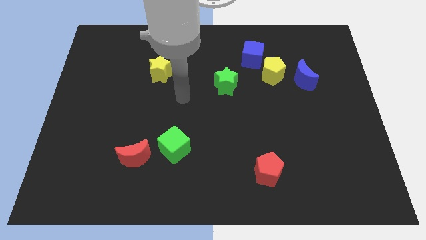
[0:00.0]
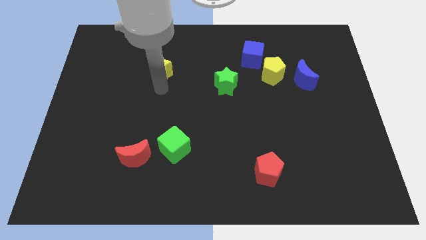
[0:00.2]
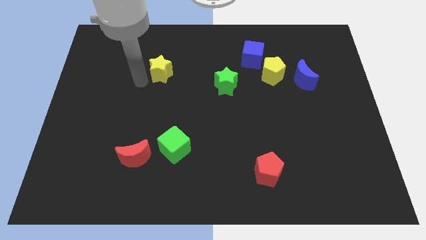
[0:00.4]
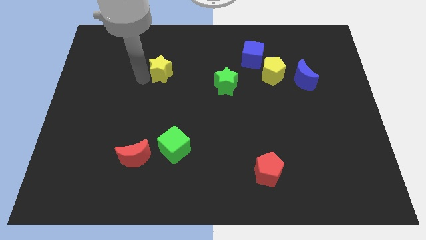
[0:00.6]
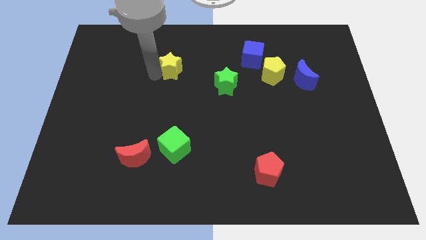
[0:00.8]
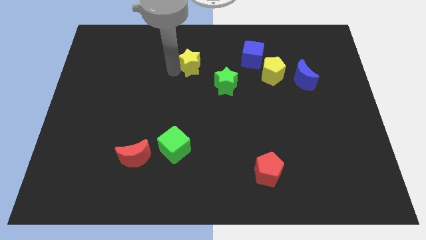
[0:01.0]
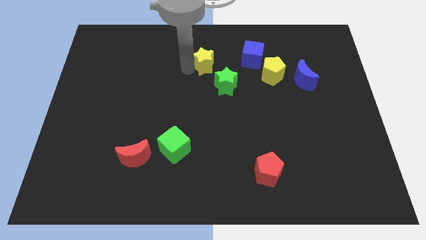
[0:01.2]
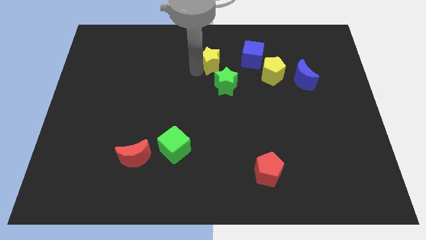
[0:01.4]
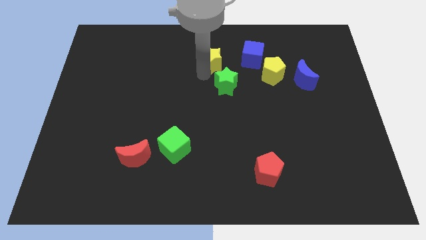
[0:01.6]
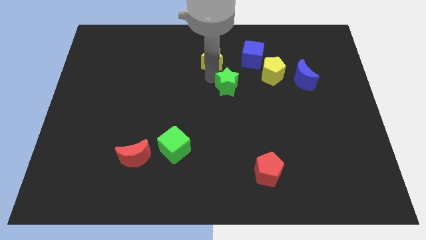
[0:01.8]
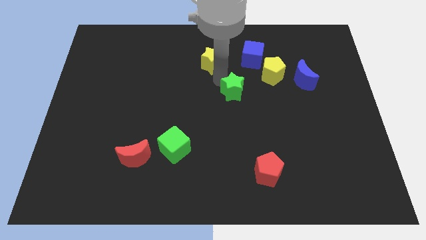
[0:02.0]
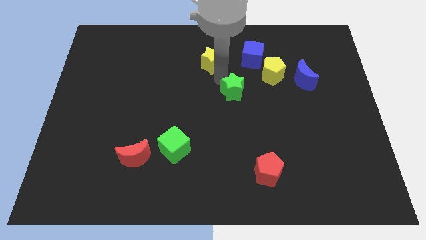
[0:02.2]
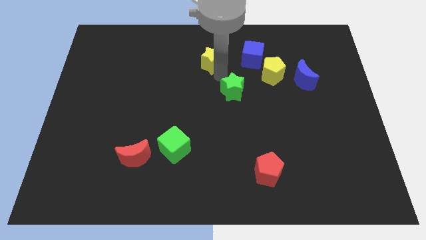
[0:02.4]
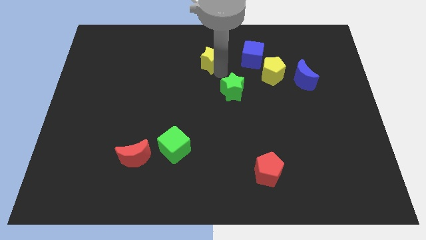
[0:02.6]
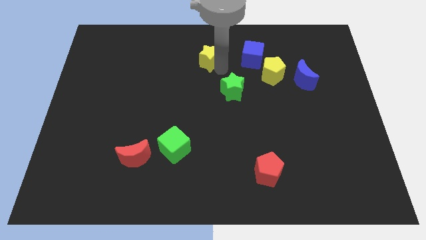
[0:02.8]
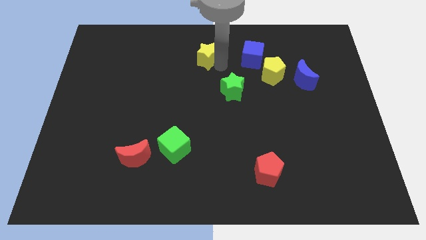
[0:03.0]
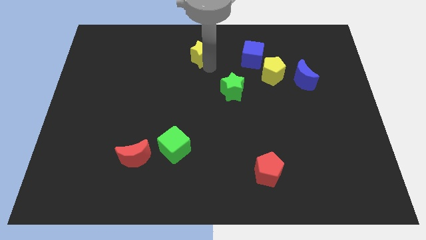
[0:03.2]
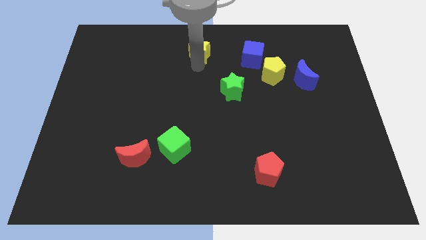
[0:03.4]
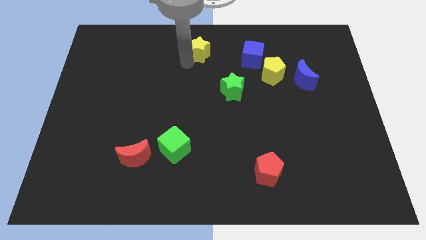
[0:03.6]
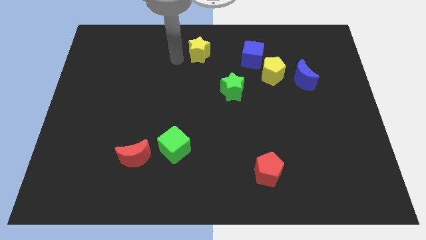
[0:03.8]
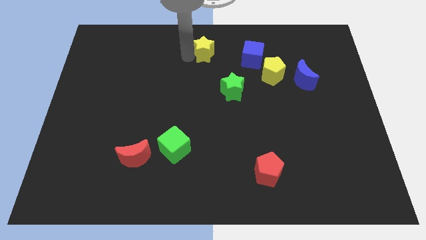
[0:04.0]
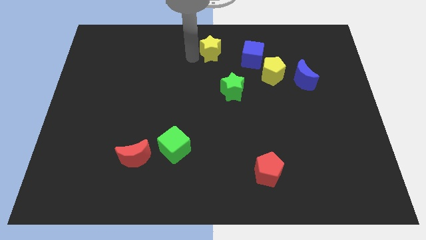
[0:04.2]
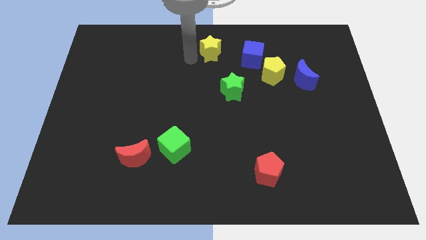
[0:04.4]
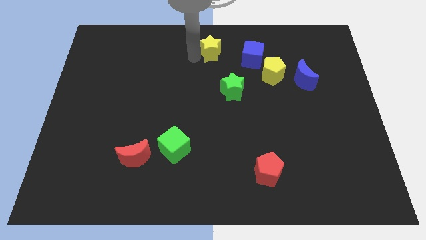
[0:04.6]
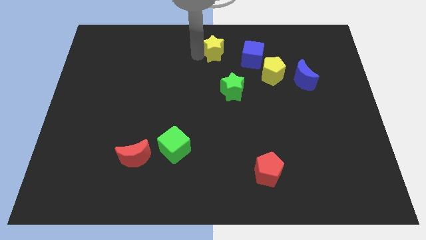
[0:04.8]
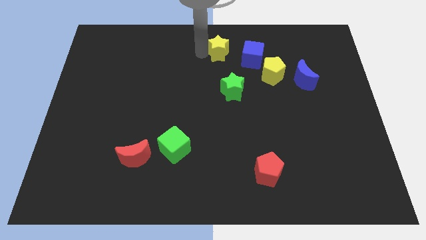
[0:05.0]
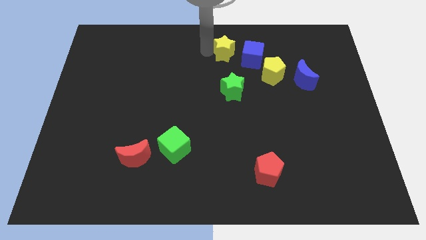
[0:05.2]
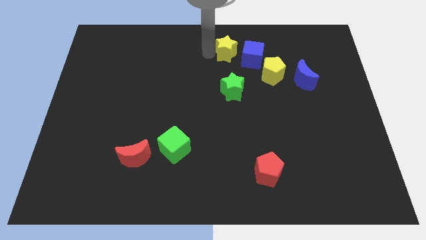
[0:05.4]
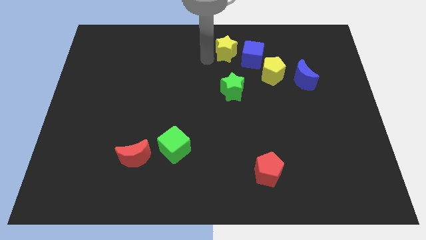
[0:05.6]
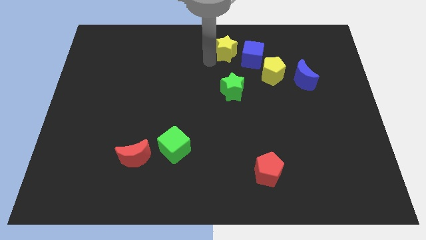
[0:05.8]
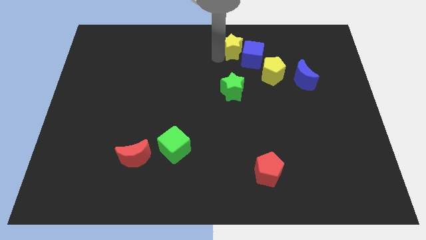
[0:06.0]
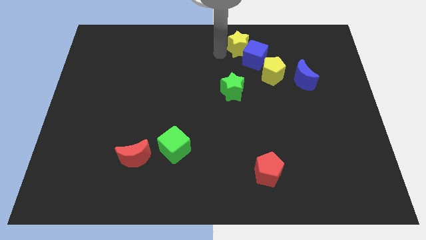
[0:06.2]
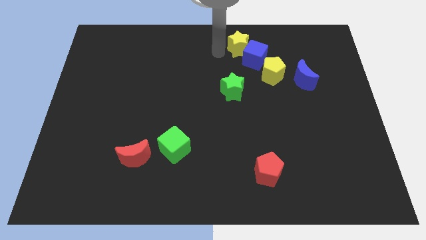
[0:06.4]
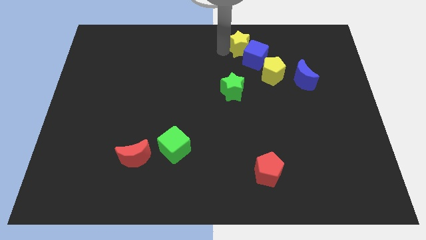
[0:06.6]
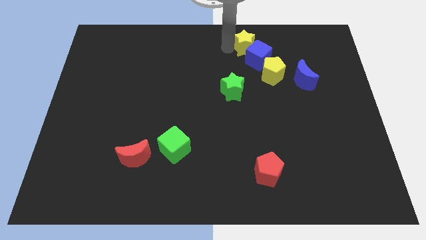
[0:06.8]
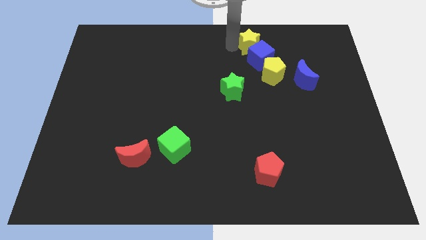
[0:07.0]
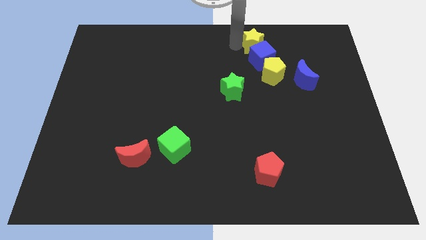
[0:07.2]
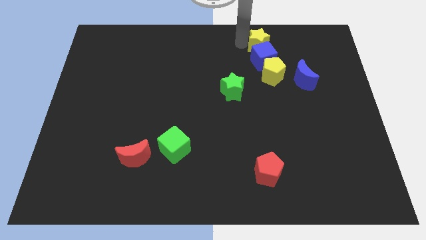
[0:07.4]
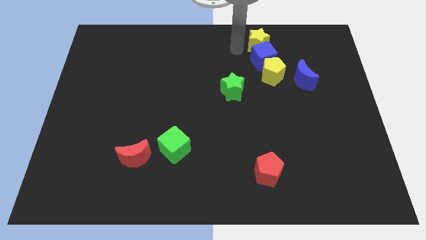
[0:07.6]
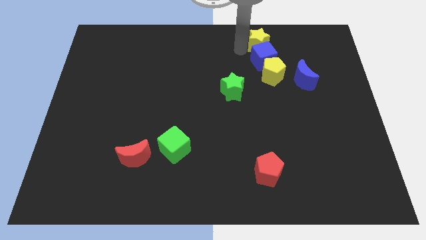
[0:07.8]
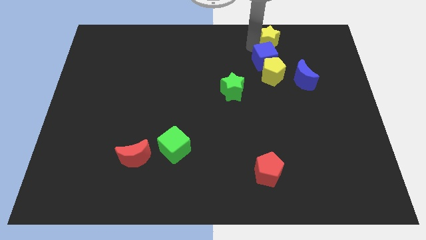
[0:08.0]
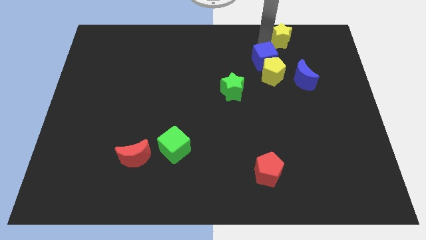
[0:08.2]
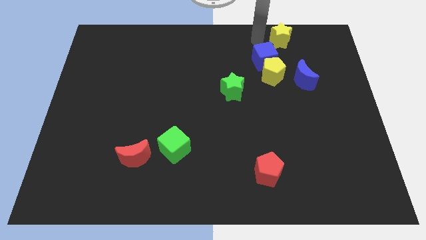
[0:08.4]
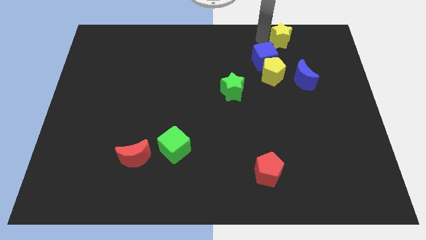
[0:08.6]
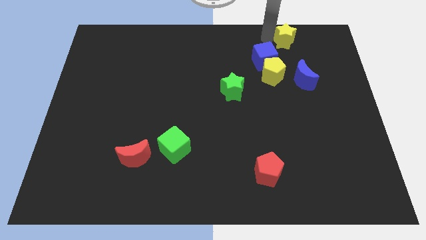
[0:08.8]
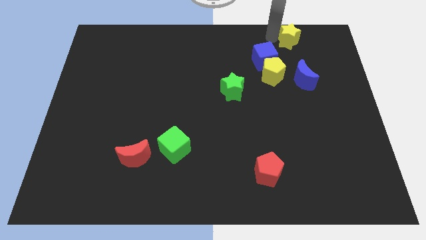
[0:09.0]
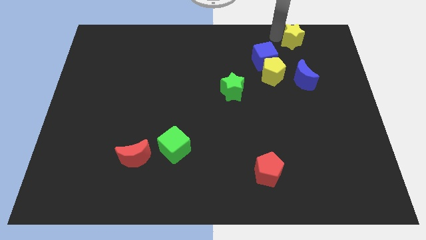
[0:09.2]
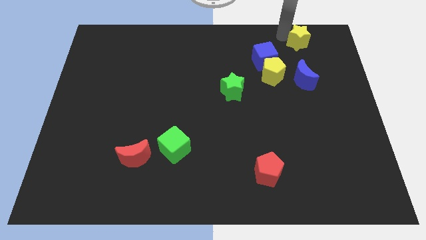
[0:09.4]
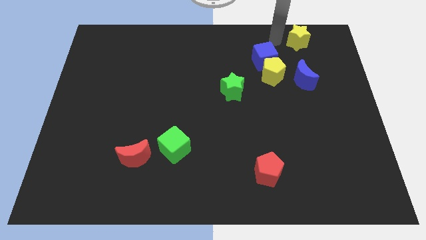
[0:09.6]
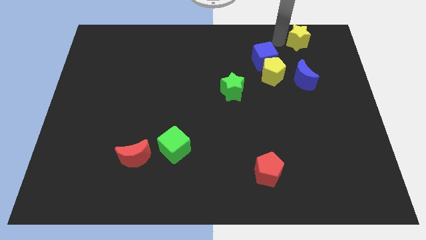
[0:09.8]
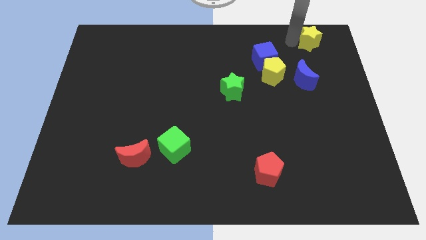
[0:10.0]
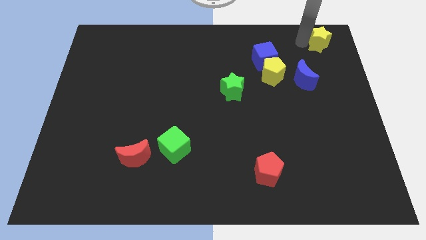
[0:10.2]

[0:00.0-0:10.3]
put the yellow star to the top right

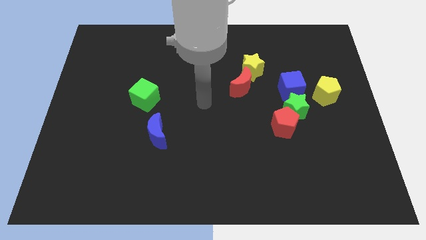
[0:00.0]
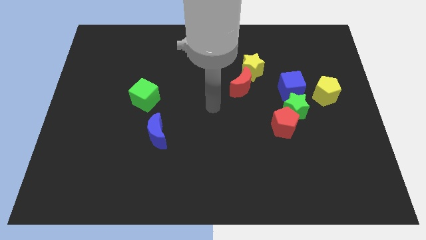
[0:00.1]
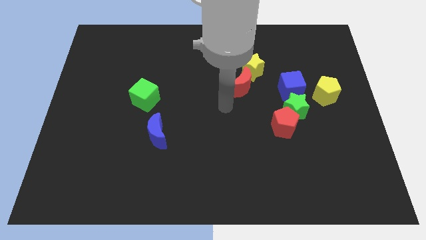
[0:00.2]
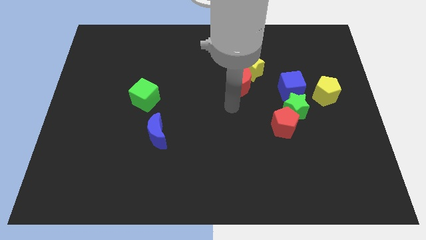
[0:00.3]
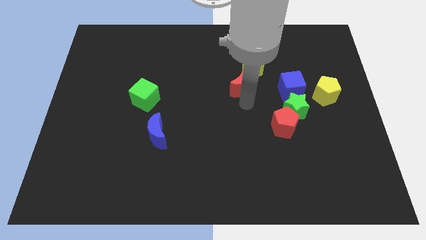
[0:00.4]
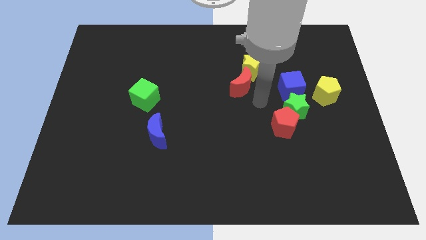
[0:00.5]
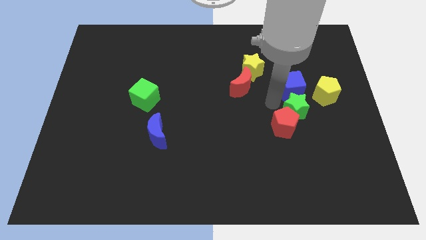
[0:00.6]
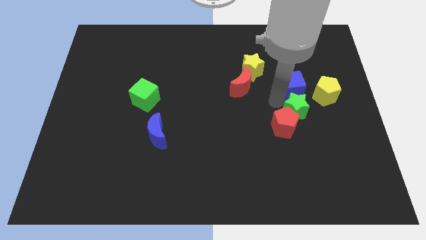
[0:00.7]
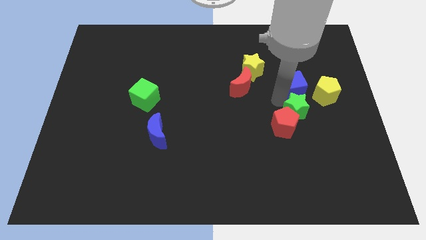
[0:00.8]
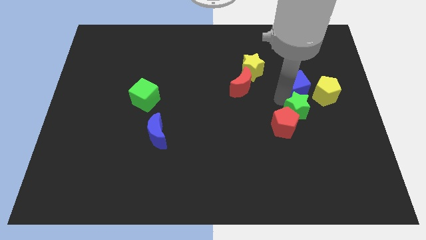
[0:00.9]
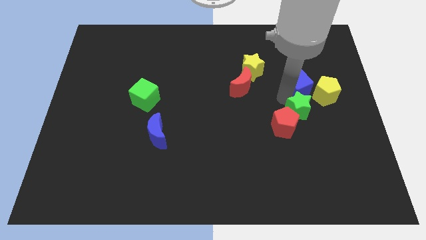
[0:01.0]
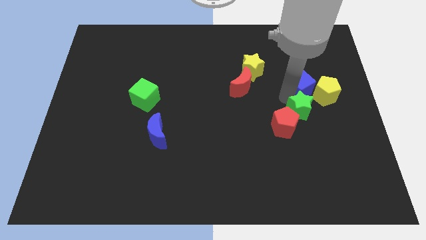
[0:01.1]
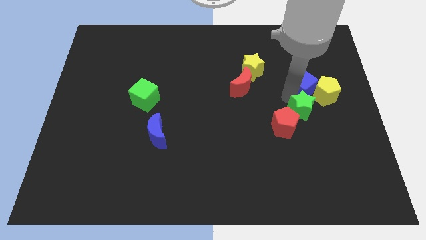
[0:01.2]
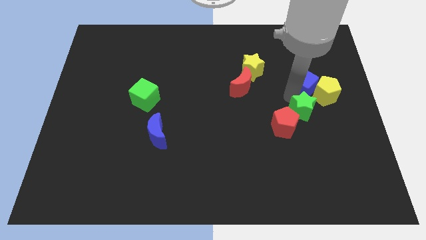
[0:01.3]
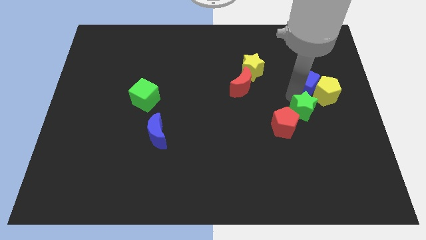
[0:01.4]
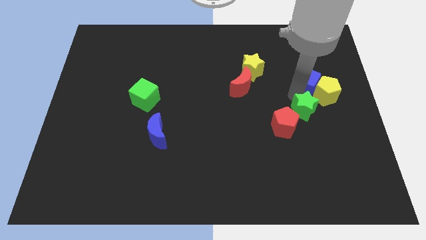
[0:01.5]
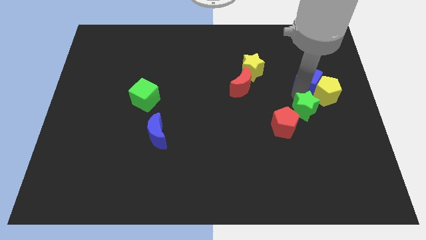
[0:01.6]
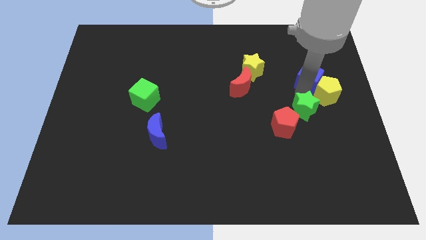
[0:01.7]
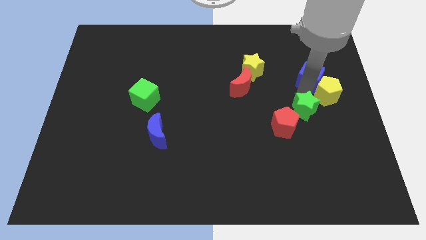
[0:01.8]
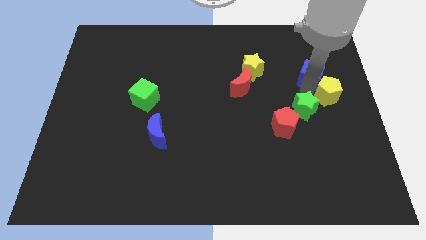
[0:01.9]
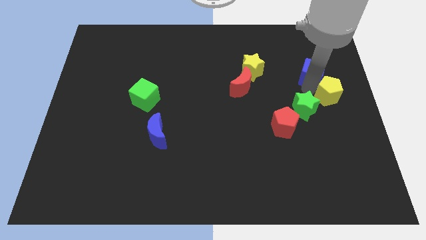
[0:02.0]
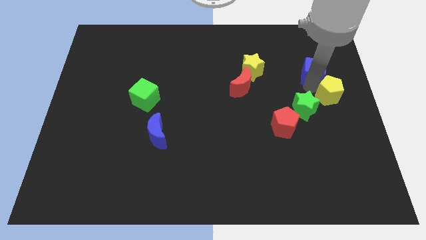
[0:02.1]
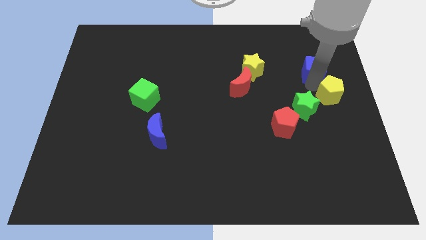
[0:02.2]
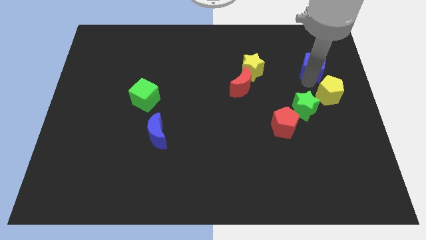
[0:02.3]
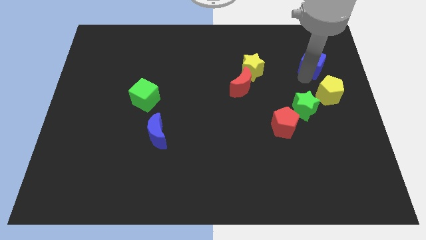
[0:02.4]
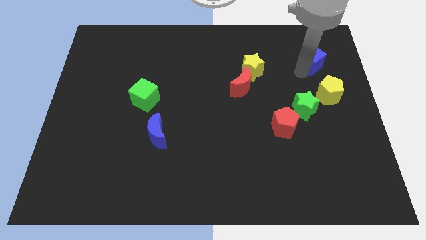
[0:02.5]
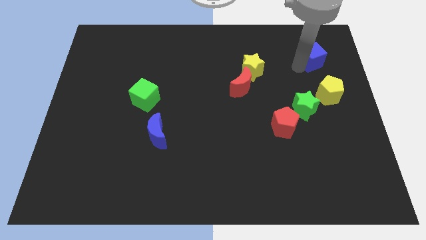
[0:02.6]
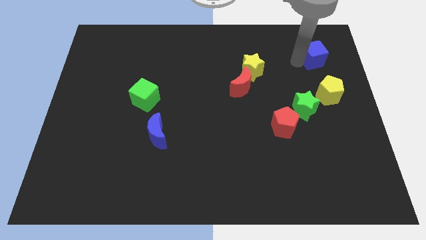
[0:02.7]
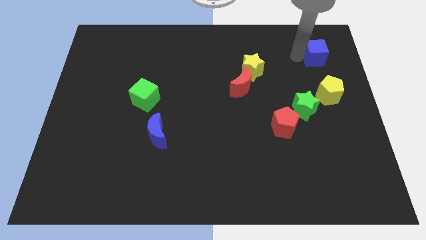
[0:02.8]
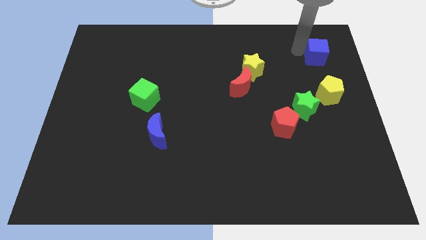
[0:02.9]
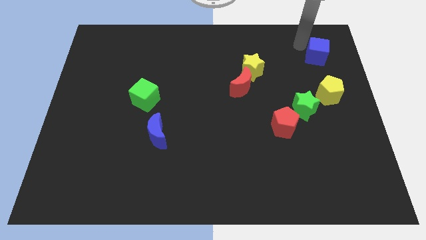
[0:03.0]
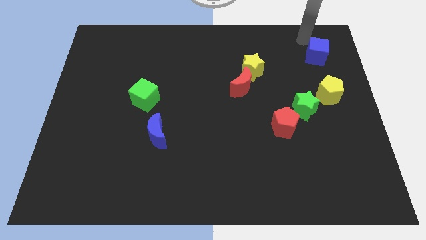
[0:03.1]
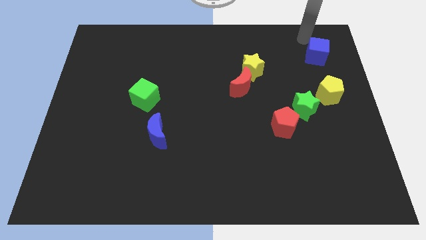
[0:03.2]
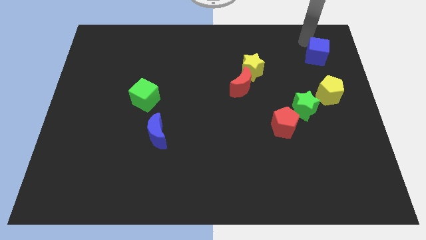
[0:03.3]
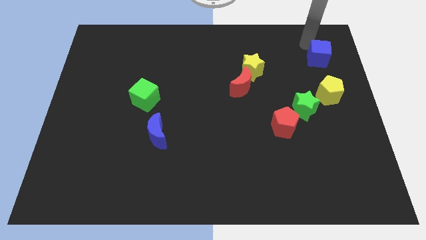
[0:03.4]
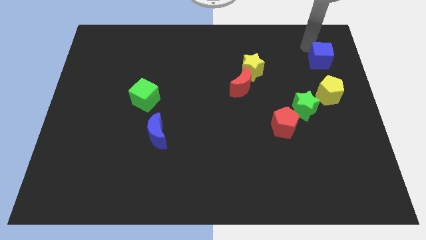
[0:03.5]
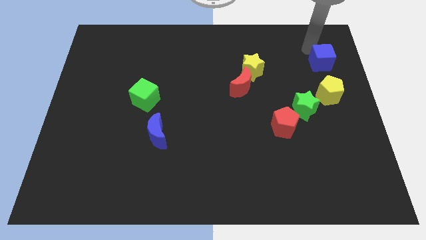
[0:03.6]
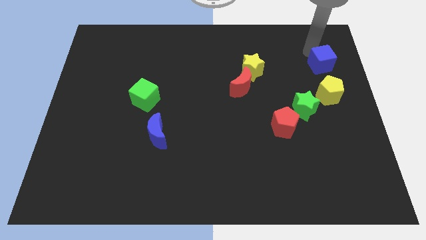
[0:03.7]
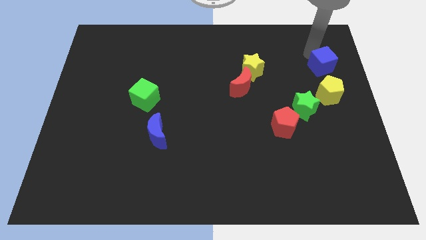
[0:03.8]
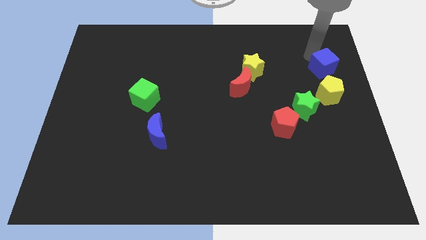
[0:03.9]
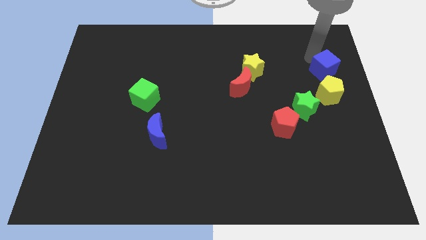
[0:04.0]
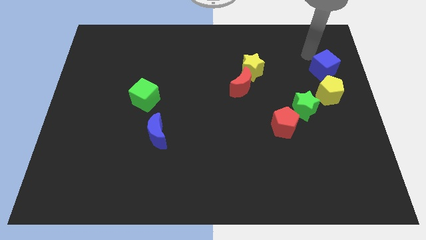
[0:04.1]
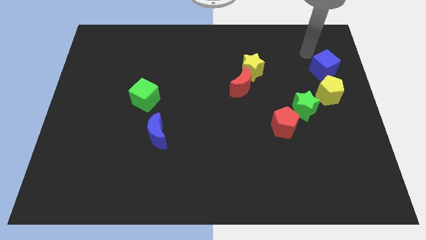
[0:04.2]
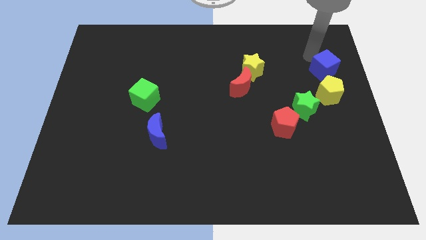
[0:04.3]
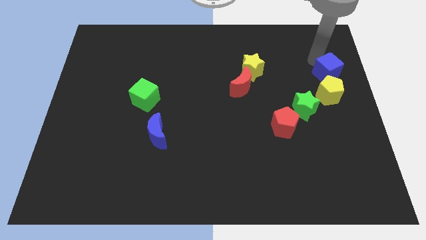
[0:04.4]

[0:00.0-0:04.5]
put the blue cube to the right side
